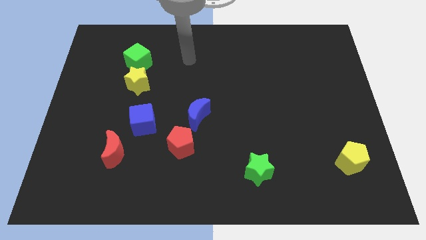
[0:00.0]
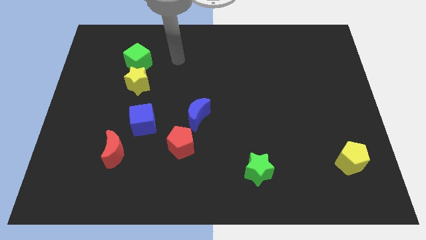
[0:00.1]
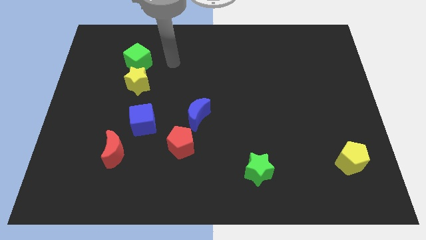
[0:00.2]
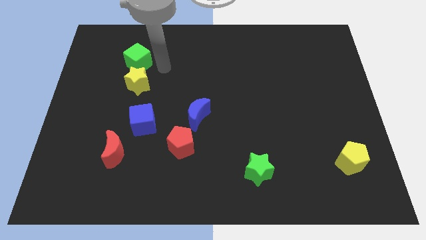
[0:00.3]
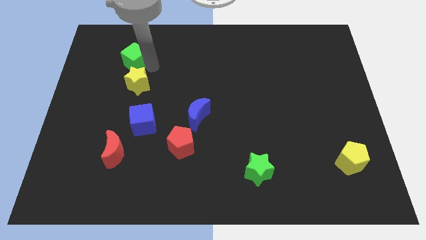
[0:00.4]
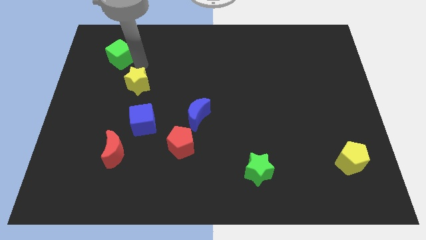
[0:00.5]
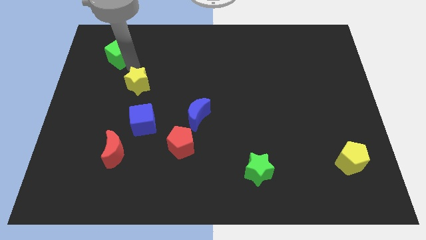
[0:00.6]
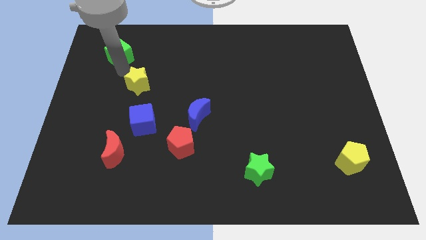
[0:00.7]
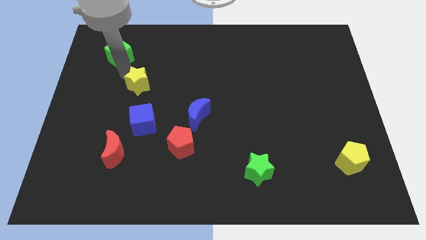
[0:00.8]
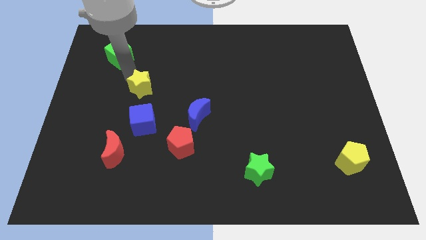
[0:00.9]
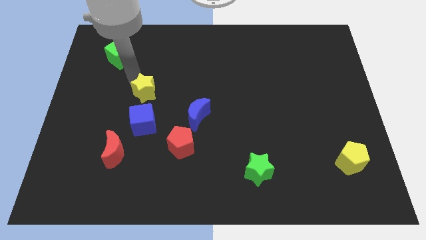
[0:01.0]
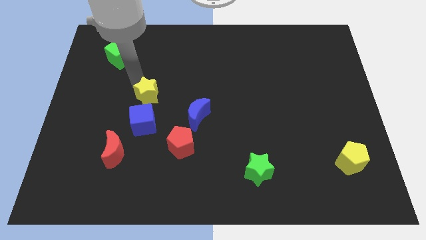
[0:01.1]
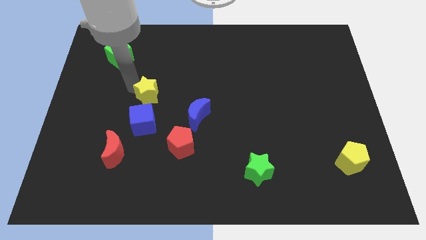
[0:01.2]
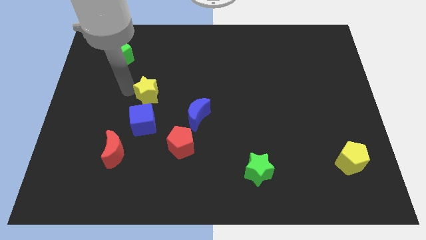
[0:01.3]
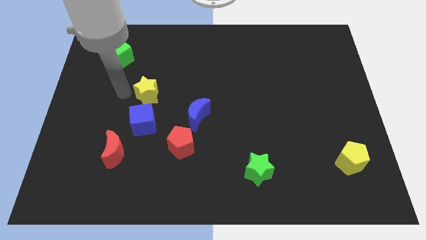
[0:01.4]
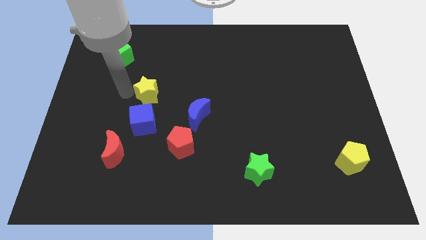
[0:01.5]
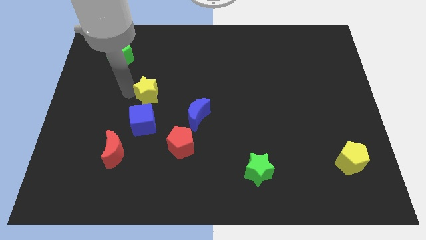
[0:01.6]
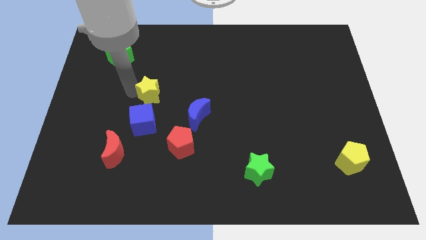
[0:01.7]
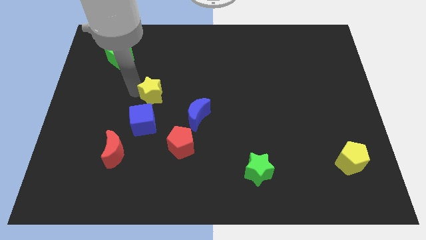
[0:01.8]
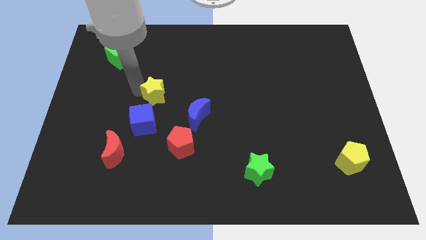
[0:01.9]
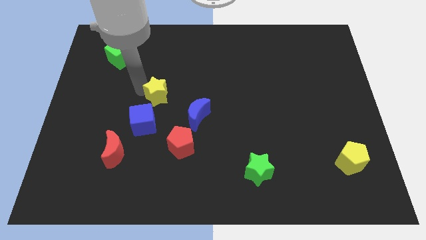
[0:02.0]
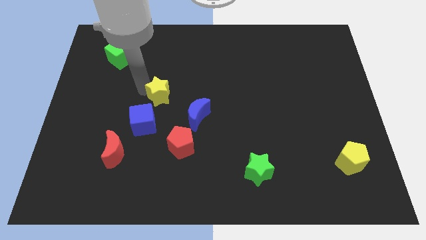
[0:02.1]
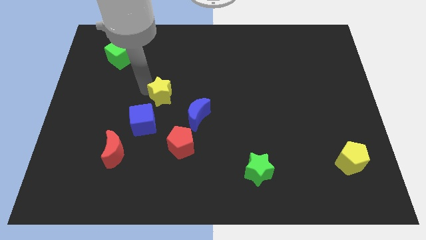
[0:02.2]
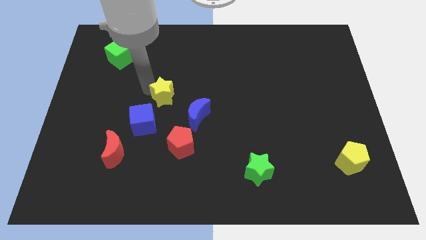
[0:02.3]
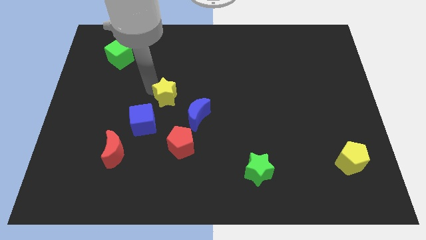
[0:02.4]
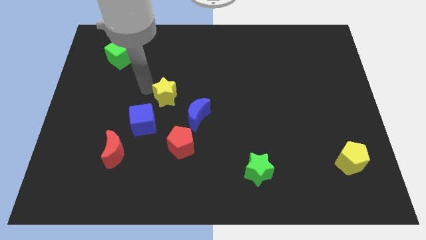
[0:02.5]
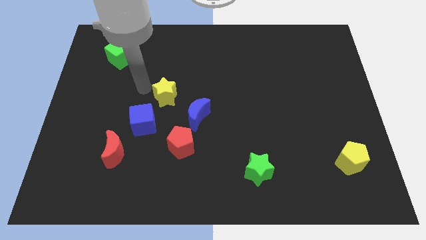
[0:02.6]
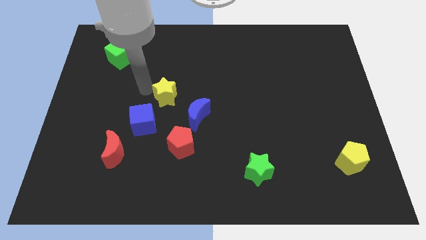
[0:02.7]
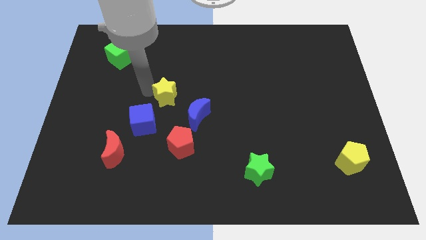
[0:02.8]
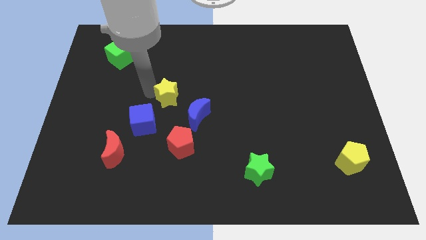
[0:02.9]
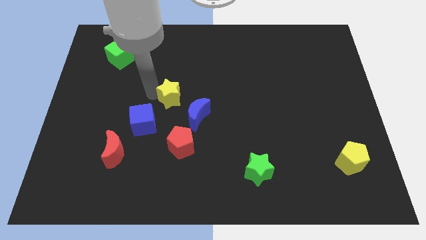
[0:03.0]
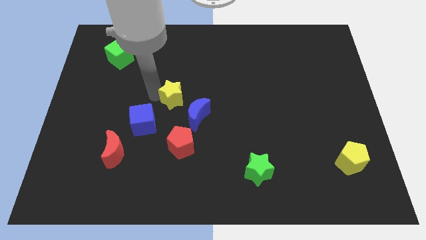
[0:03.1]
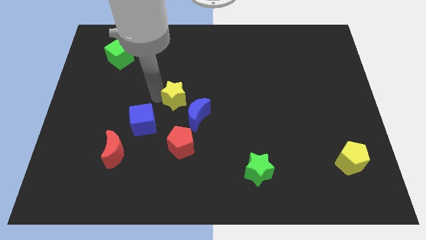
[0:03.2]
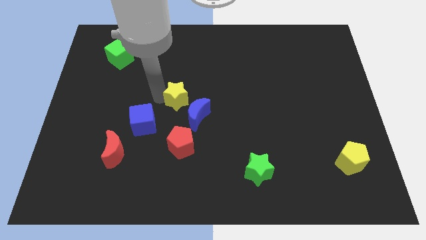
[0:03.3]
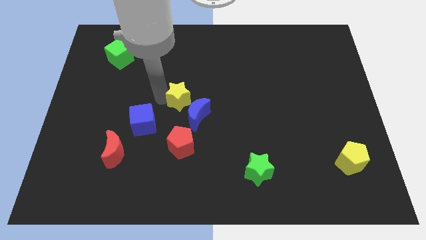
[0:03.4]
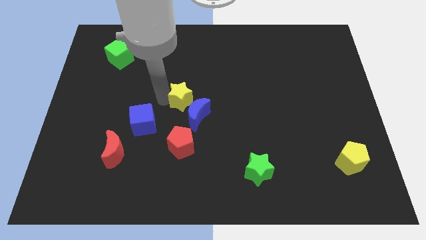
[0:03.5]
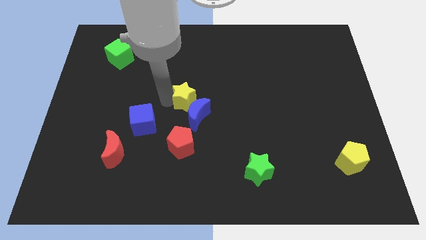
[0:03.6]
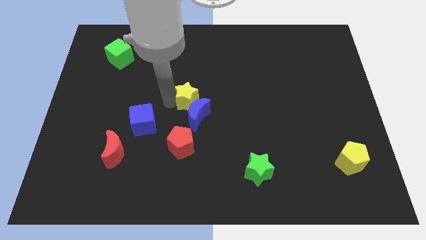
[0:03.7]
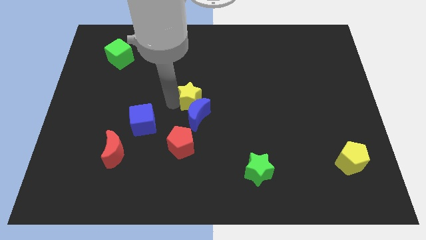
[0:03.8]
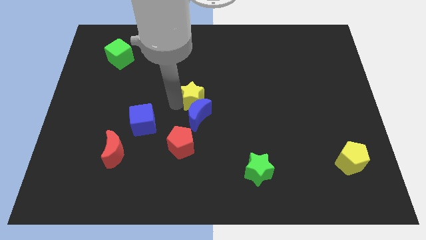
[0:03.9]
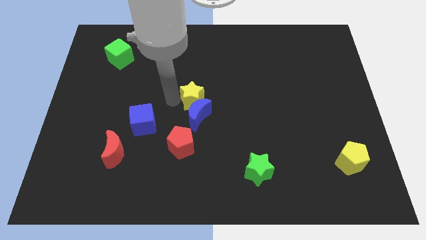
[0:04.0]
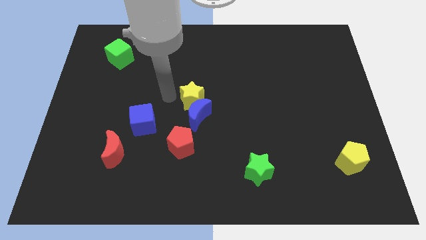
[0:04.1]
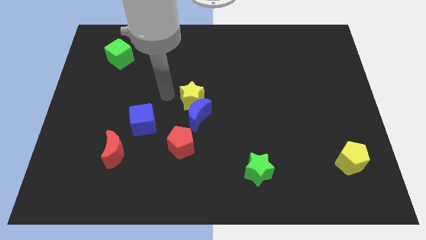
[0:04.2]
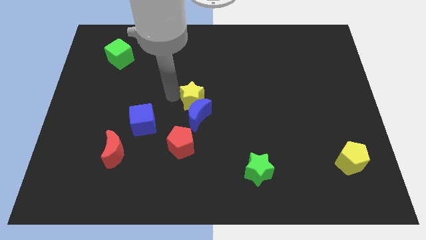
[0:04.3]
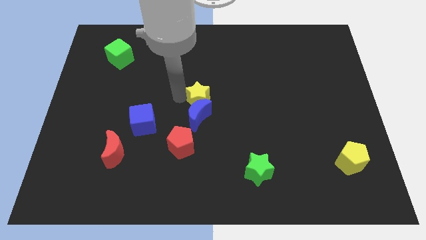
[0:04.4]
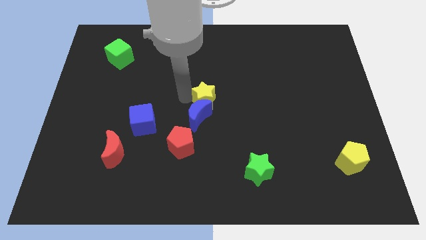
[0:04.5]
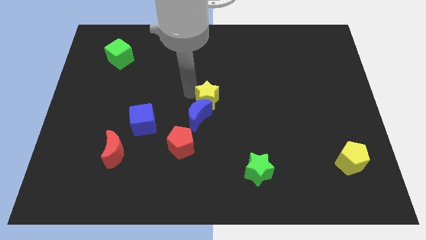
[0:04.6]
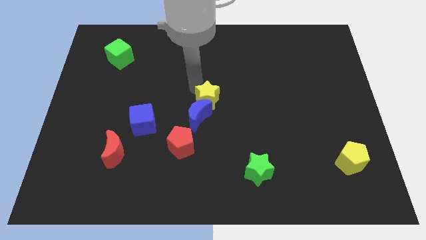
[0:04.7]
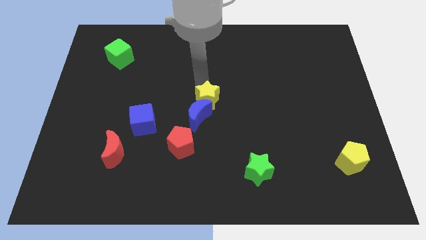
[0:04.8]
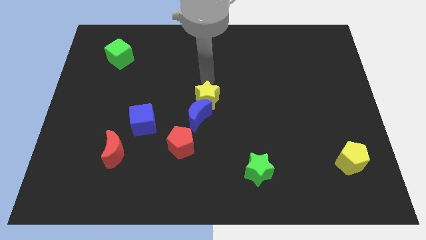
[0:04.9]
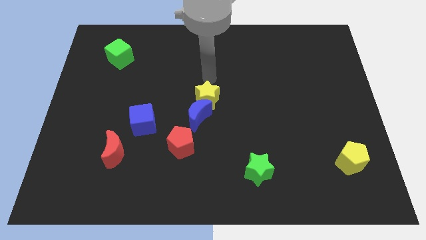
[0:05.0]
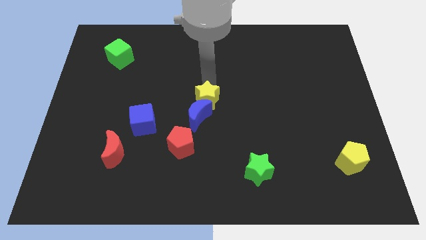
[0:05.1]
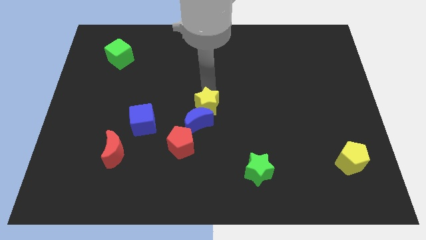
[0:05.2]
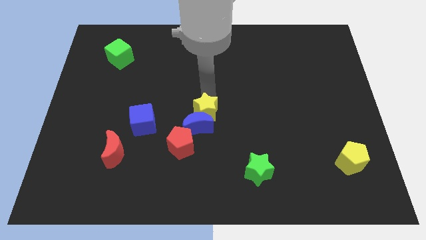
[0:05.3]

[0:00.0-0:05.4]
move the yellow star to the top right side of the red pentagon

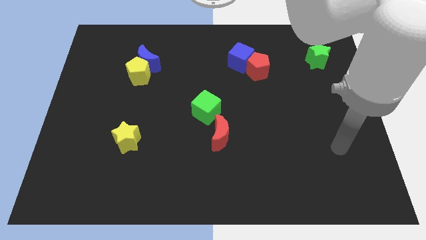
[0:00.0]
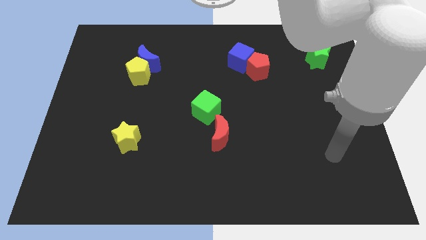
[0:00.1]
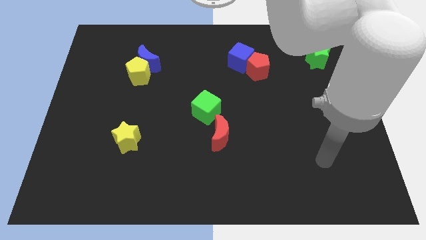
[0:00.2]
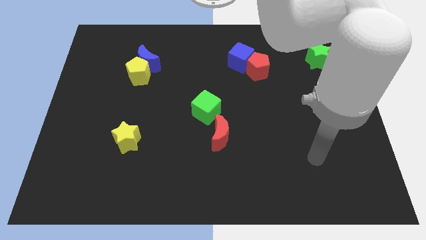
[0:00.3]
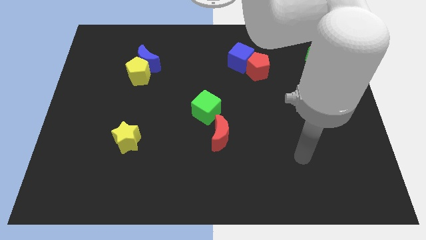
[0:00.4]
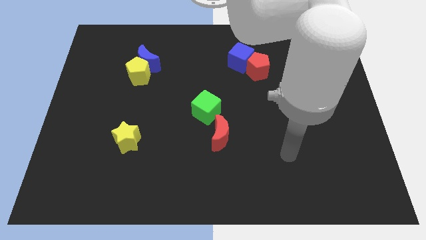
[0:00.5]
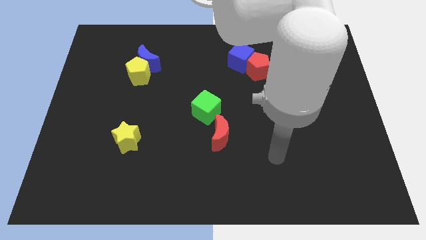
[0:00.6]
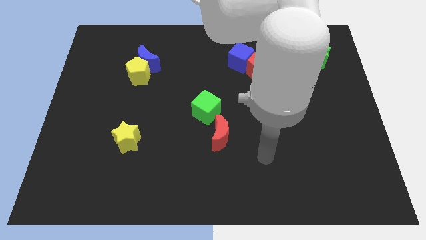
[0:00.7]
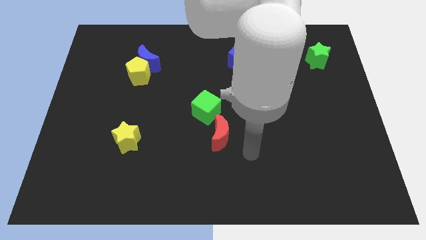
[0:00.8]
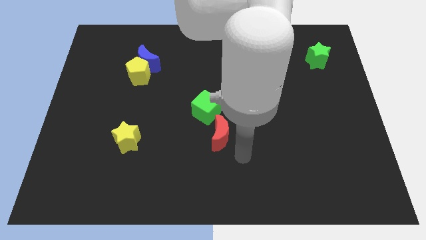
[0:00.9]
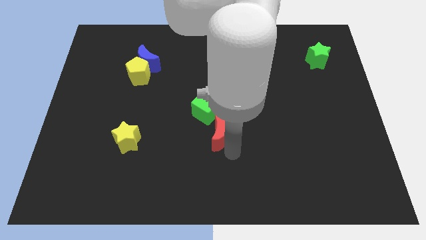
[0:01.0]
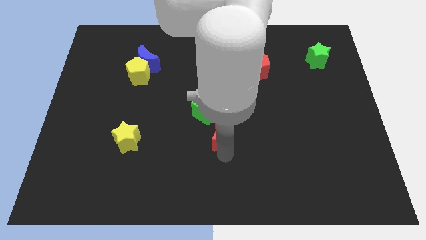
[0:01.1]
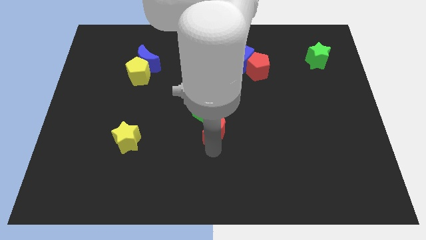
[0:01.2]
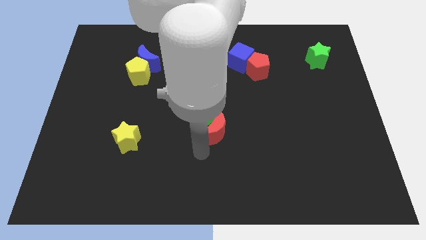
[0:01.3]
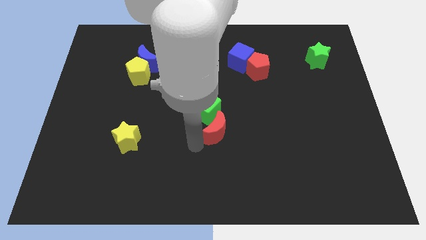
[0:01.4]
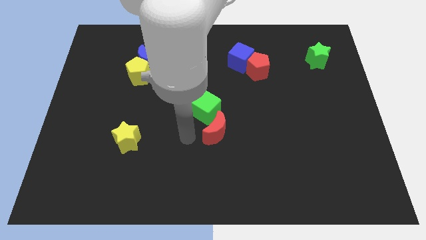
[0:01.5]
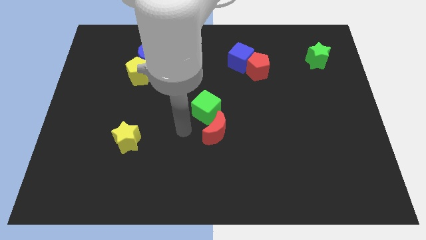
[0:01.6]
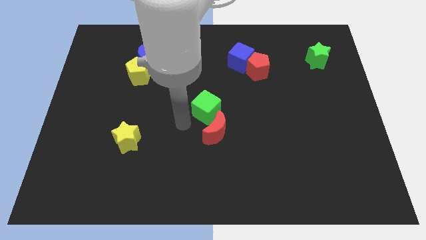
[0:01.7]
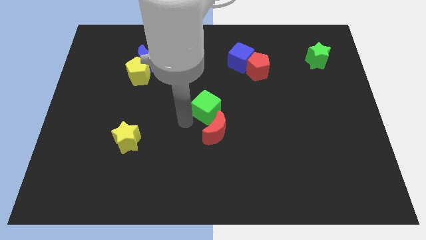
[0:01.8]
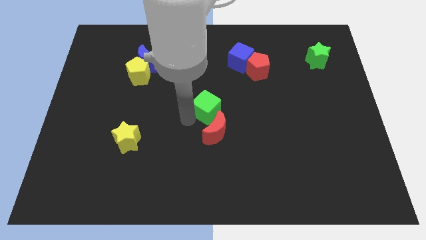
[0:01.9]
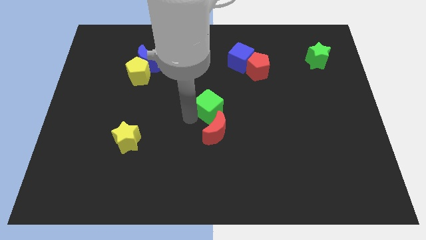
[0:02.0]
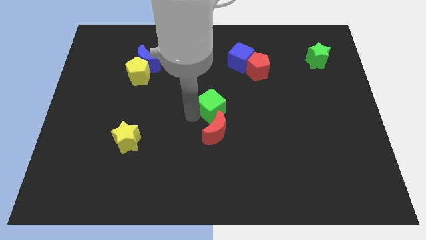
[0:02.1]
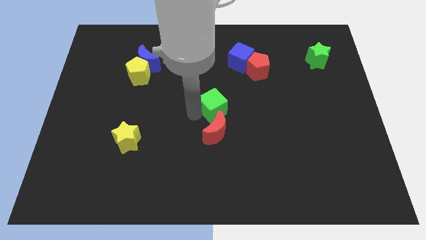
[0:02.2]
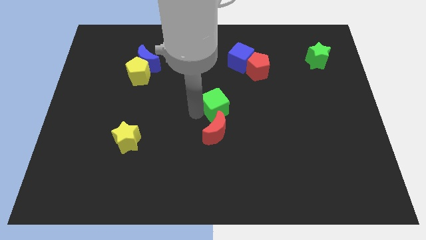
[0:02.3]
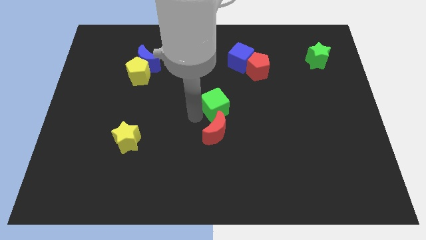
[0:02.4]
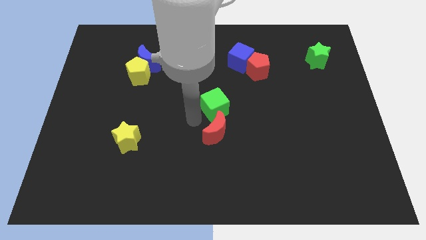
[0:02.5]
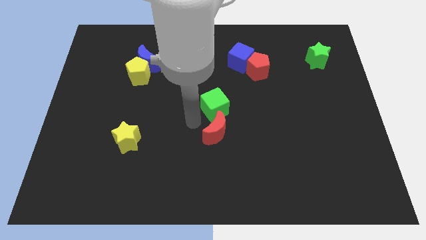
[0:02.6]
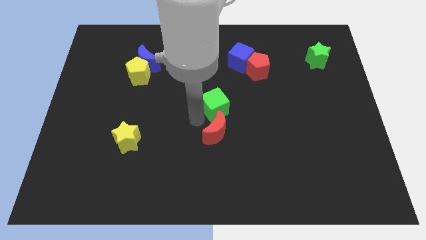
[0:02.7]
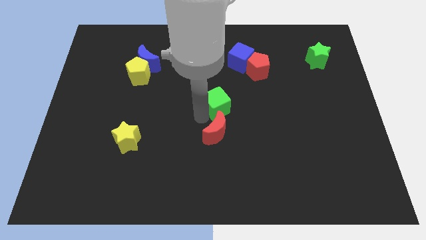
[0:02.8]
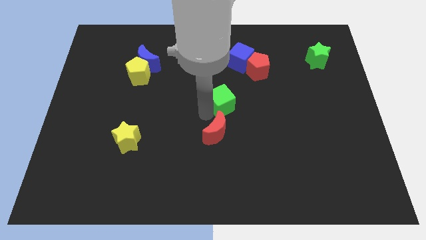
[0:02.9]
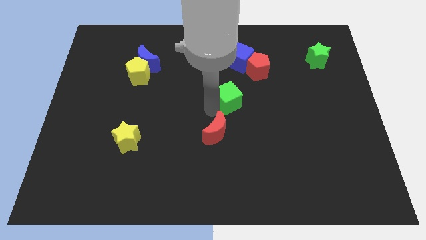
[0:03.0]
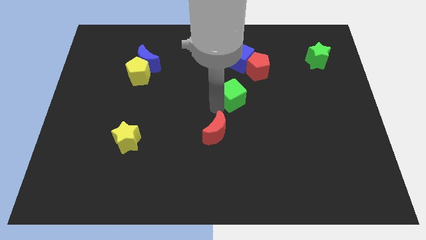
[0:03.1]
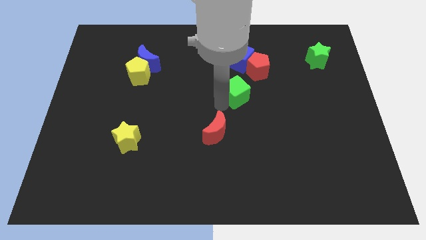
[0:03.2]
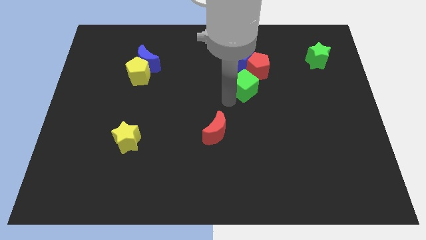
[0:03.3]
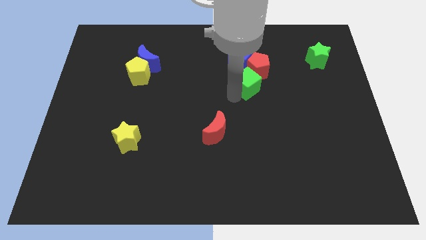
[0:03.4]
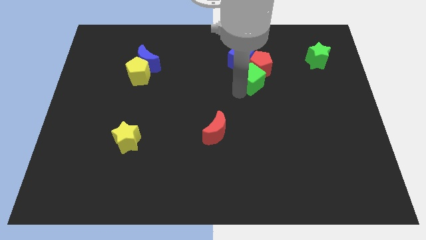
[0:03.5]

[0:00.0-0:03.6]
push the green cube to the bottom right side of the blue cube
